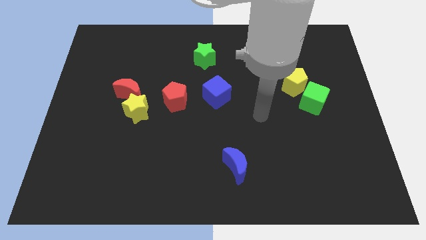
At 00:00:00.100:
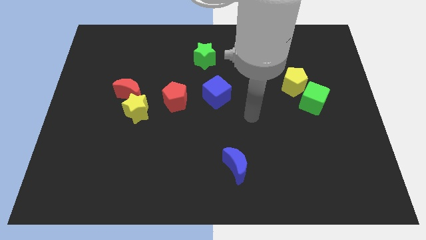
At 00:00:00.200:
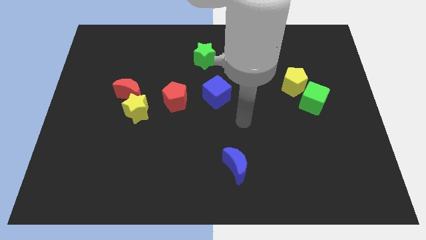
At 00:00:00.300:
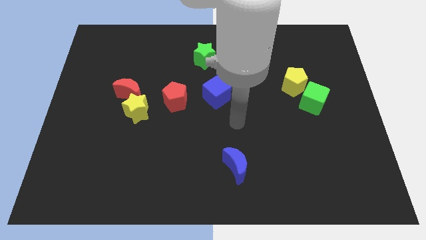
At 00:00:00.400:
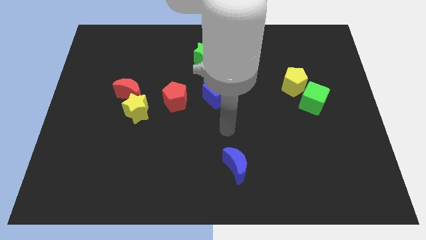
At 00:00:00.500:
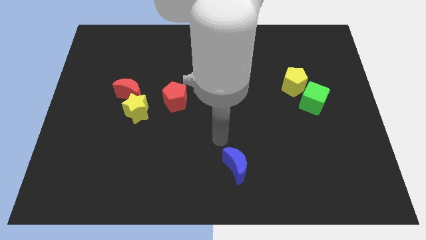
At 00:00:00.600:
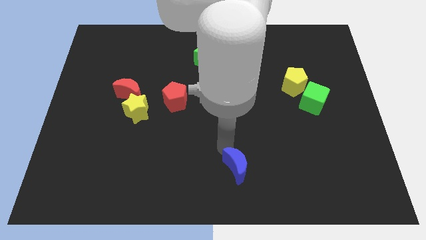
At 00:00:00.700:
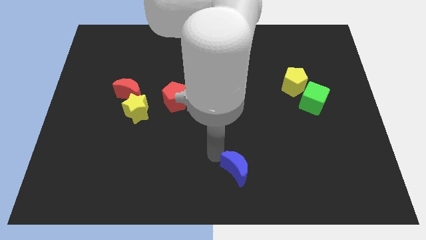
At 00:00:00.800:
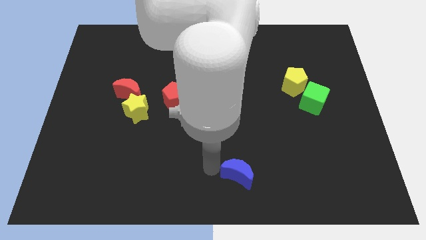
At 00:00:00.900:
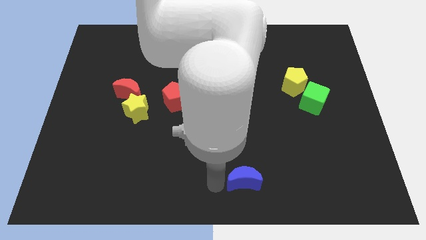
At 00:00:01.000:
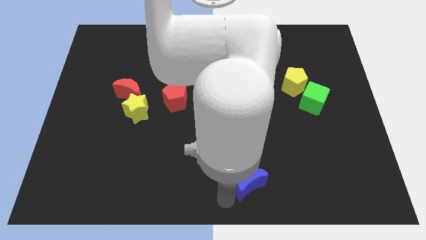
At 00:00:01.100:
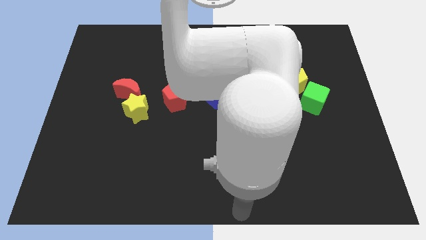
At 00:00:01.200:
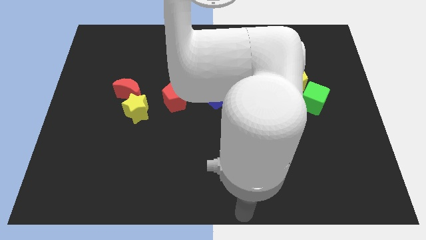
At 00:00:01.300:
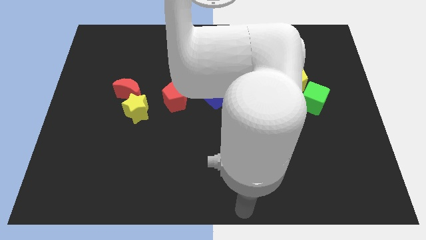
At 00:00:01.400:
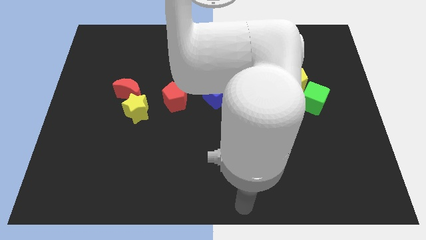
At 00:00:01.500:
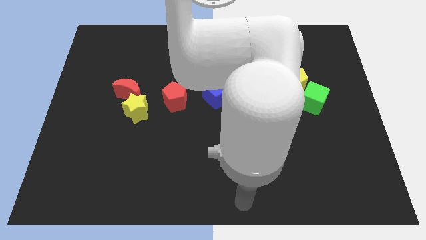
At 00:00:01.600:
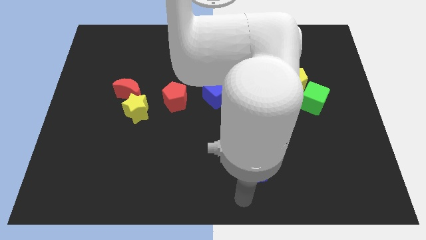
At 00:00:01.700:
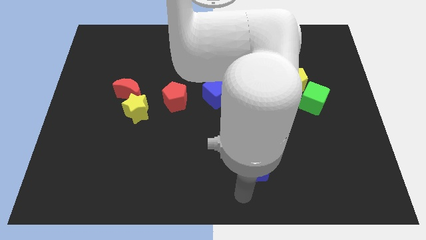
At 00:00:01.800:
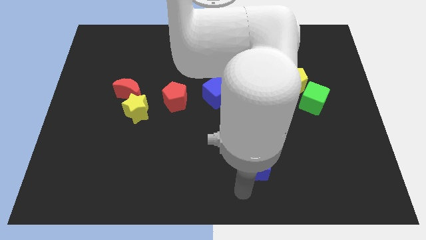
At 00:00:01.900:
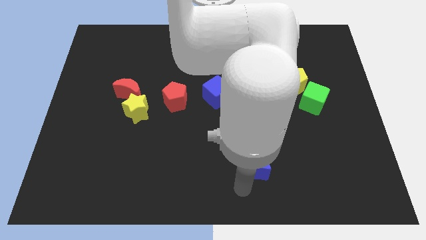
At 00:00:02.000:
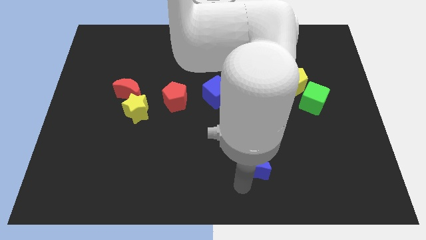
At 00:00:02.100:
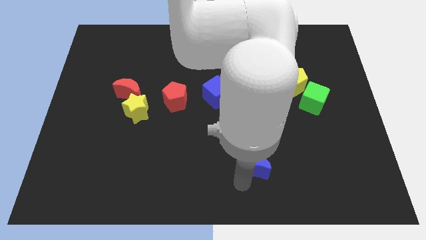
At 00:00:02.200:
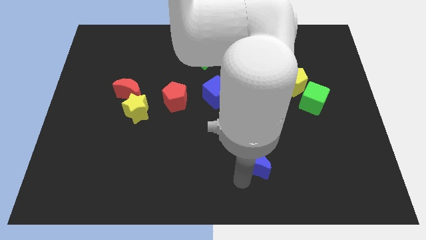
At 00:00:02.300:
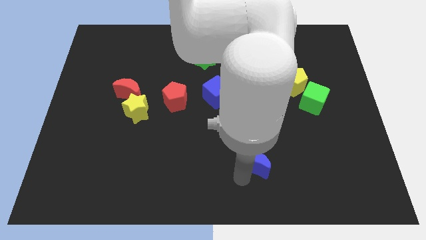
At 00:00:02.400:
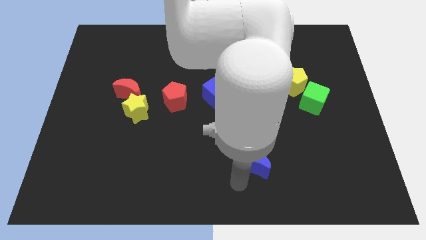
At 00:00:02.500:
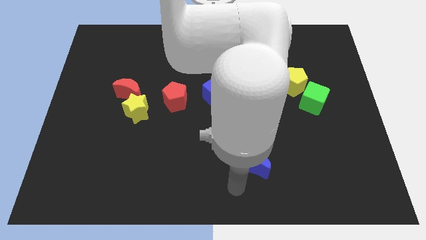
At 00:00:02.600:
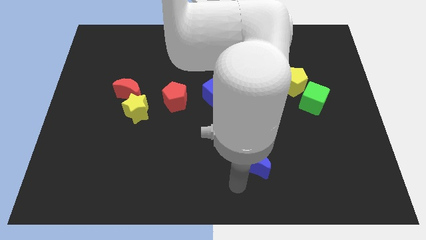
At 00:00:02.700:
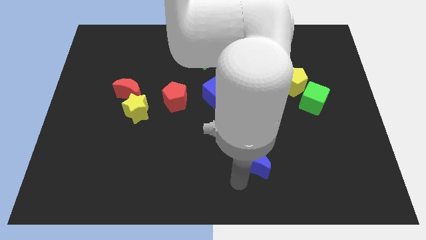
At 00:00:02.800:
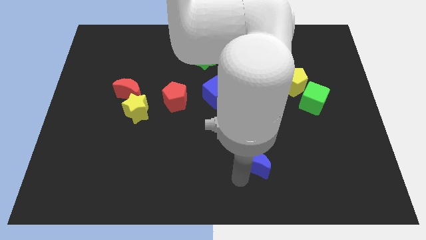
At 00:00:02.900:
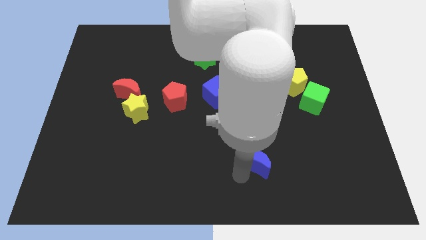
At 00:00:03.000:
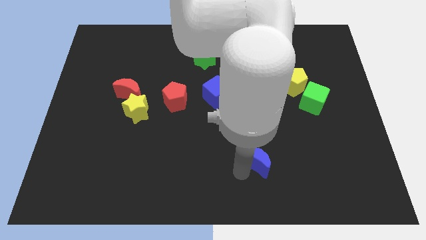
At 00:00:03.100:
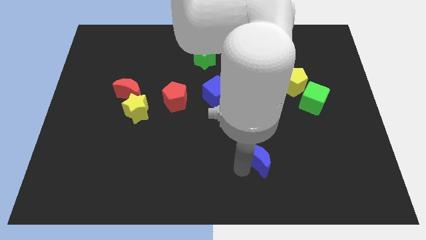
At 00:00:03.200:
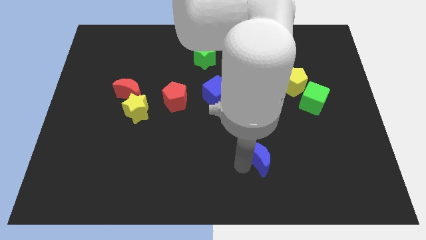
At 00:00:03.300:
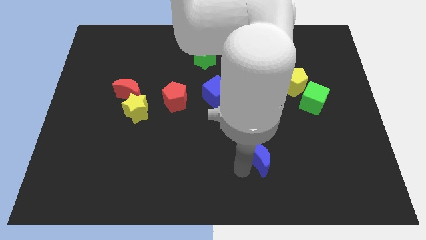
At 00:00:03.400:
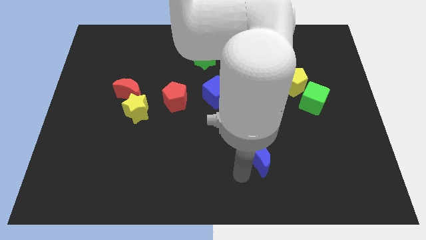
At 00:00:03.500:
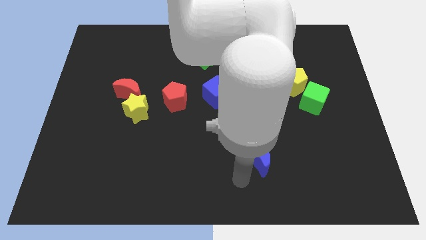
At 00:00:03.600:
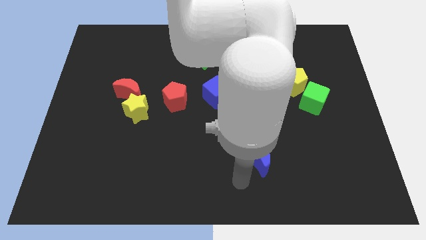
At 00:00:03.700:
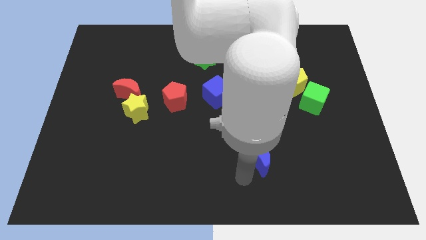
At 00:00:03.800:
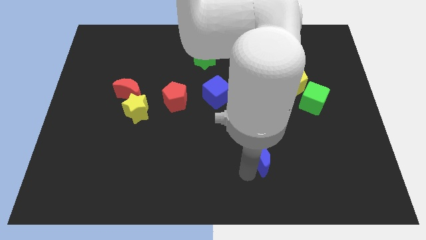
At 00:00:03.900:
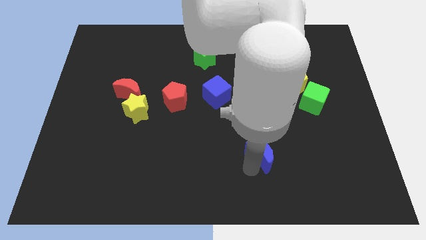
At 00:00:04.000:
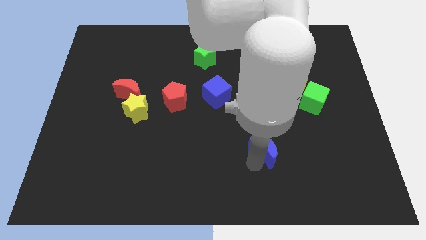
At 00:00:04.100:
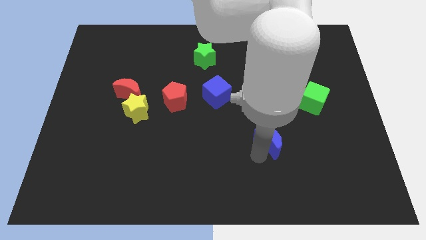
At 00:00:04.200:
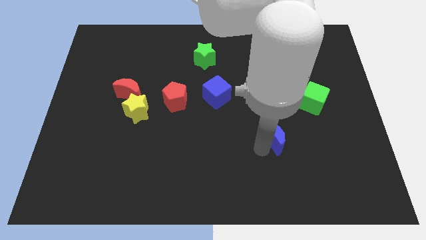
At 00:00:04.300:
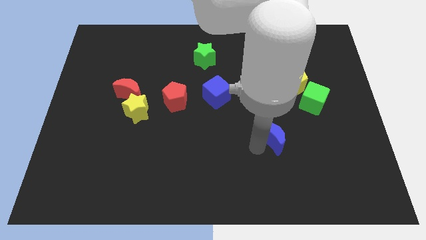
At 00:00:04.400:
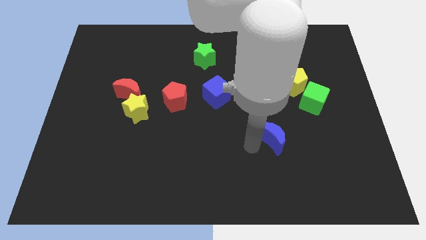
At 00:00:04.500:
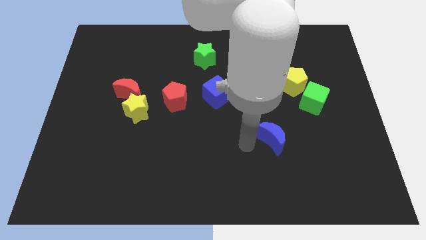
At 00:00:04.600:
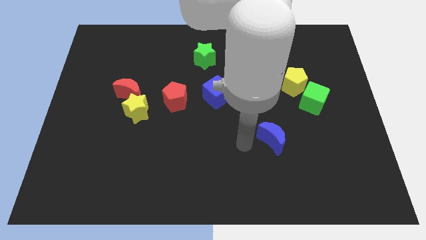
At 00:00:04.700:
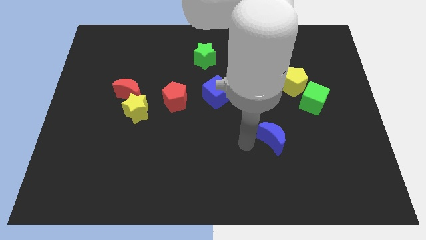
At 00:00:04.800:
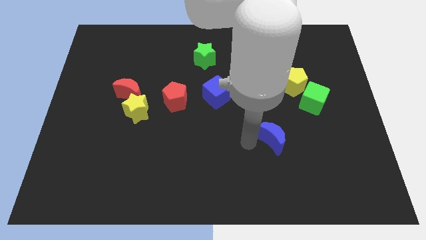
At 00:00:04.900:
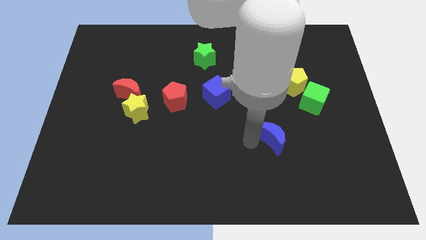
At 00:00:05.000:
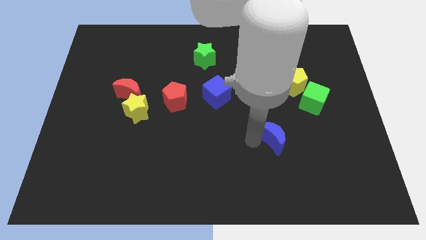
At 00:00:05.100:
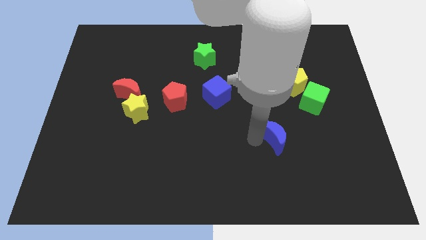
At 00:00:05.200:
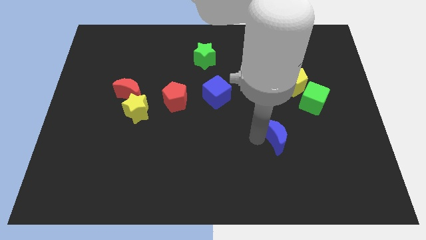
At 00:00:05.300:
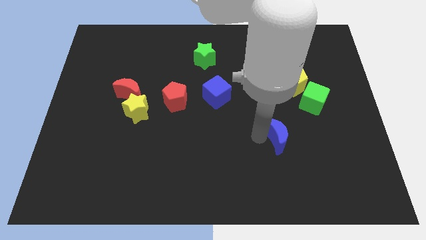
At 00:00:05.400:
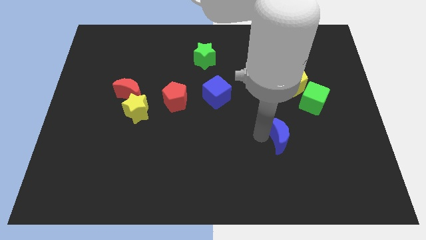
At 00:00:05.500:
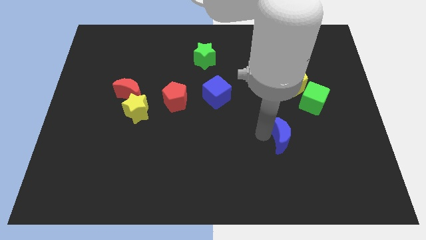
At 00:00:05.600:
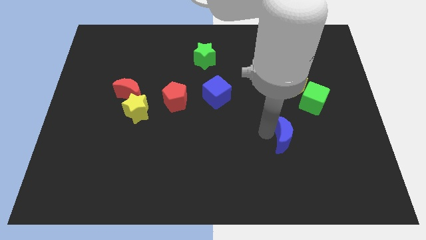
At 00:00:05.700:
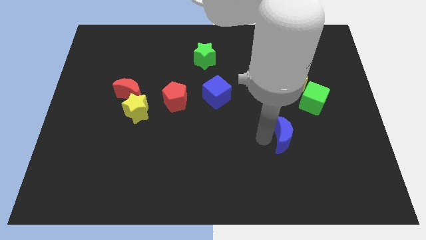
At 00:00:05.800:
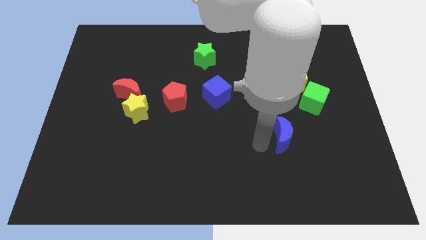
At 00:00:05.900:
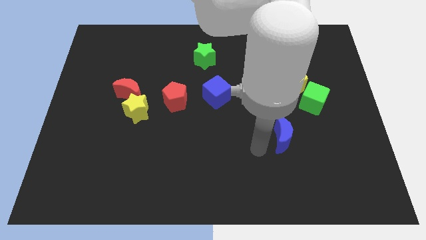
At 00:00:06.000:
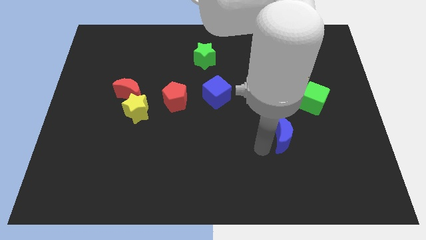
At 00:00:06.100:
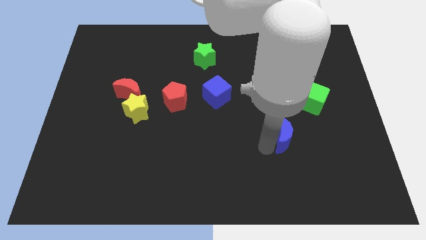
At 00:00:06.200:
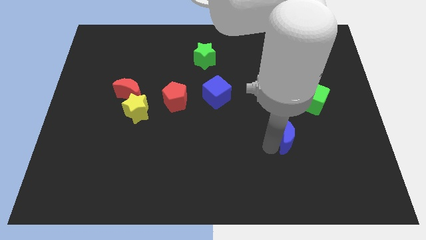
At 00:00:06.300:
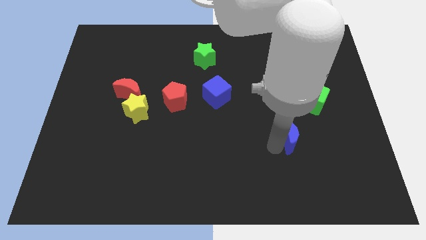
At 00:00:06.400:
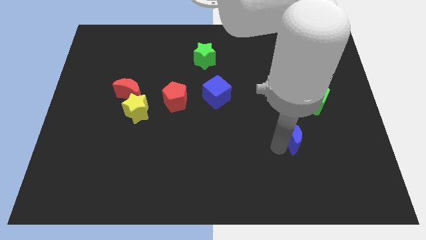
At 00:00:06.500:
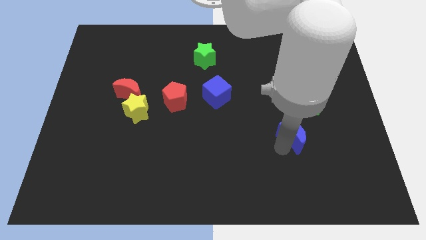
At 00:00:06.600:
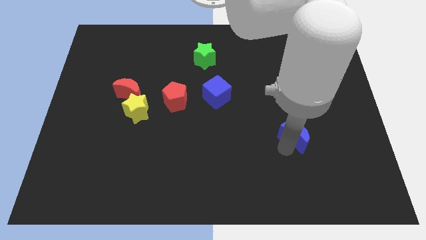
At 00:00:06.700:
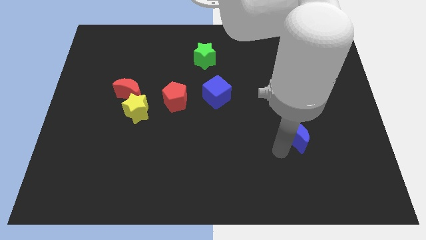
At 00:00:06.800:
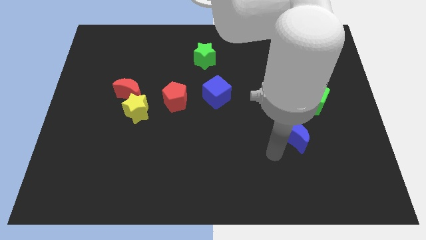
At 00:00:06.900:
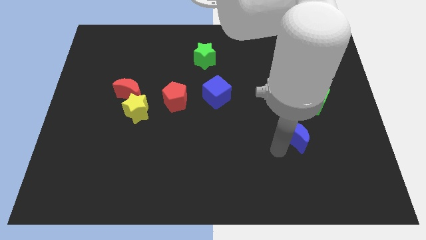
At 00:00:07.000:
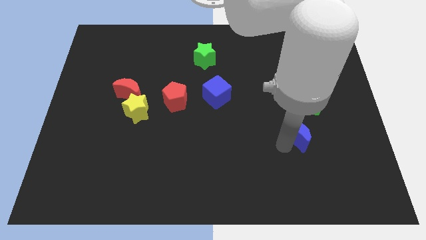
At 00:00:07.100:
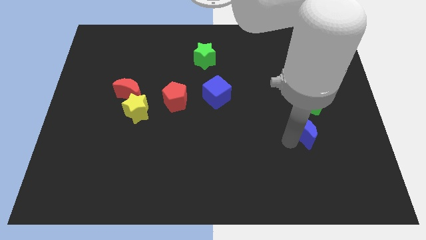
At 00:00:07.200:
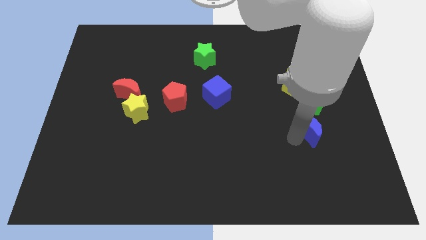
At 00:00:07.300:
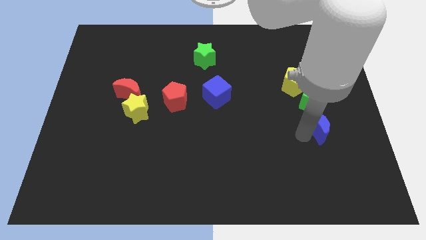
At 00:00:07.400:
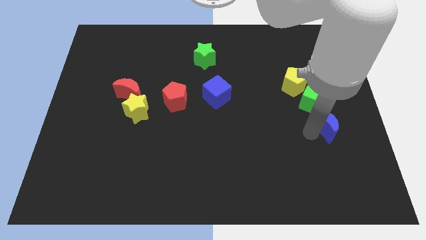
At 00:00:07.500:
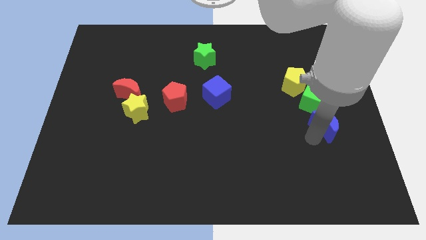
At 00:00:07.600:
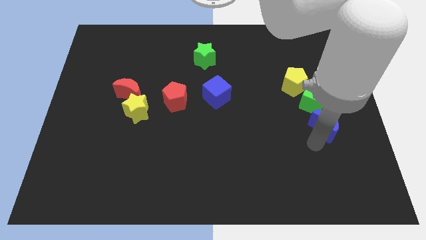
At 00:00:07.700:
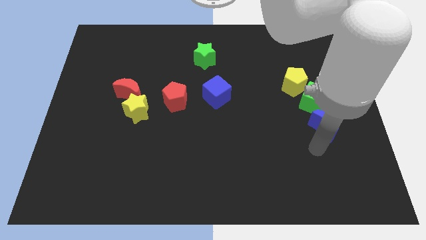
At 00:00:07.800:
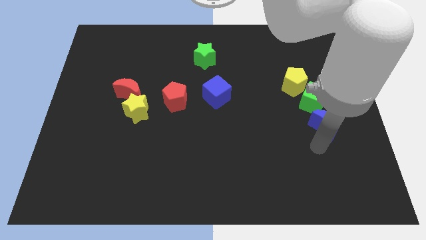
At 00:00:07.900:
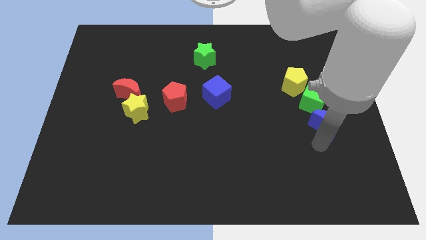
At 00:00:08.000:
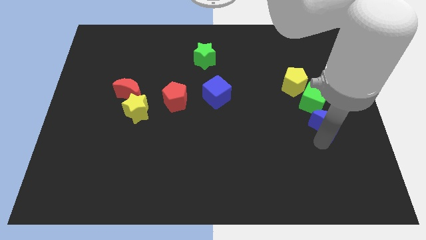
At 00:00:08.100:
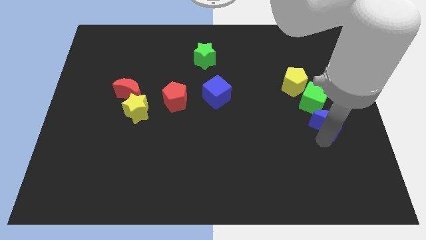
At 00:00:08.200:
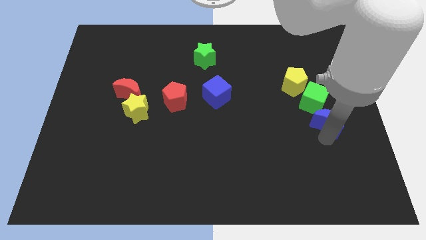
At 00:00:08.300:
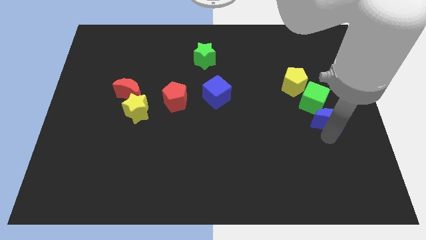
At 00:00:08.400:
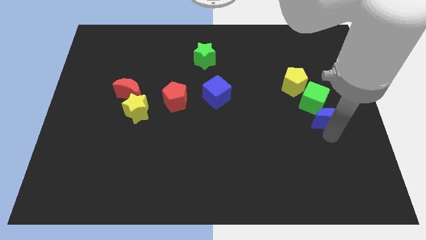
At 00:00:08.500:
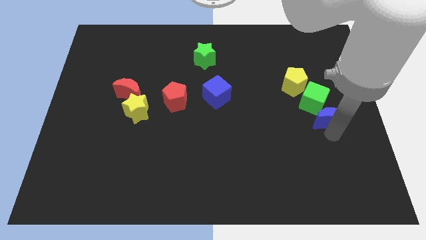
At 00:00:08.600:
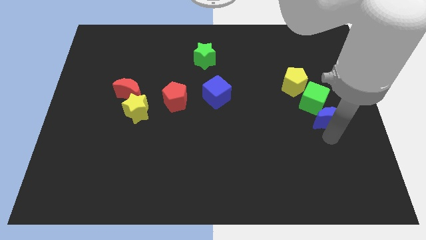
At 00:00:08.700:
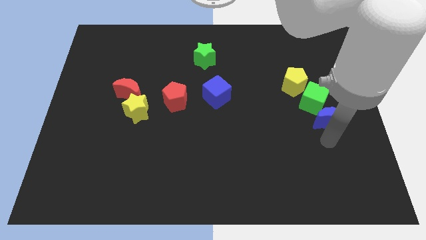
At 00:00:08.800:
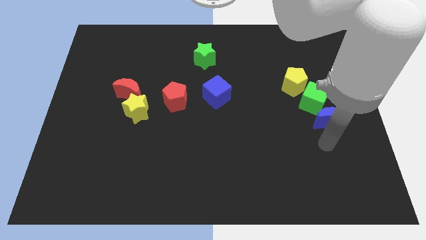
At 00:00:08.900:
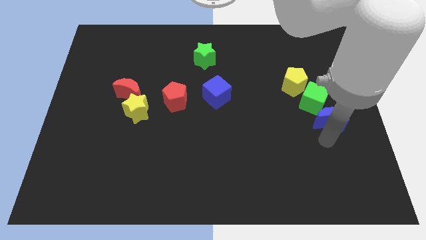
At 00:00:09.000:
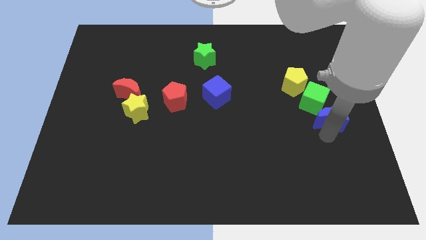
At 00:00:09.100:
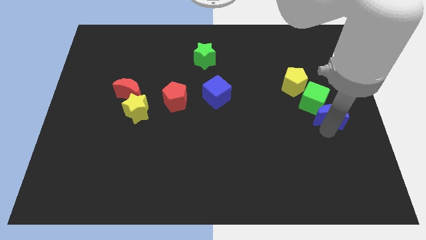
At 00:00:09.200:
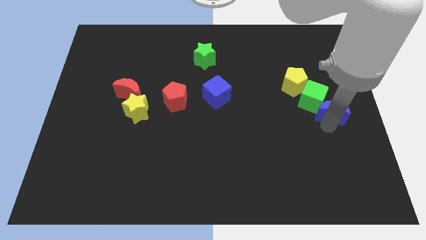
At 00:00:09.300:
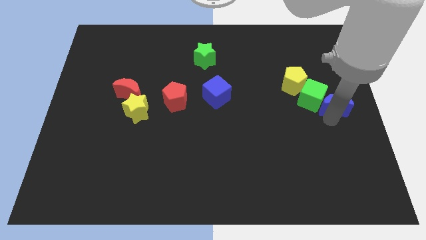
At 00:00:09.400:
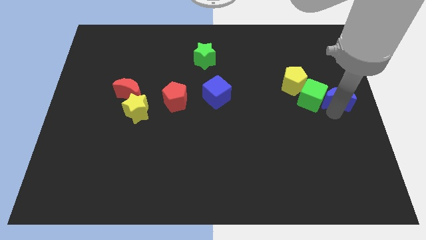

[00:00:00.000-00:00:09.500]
move the blue moon to the top right of the green cube
